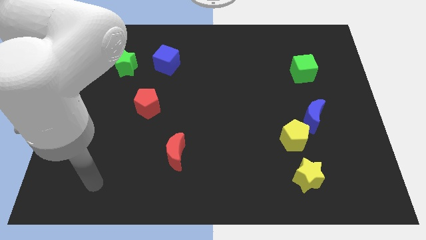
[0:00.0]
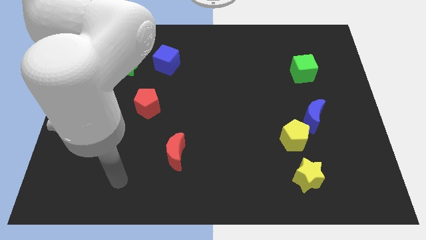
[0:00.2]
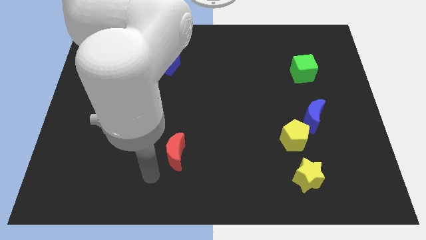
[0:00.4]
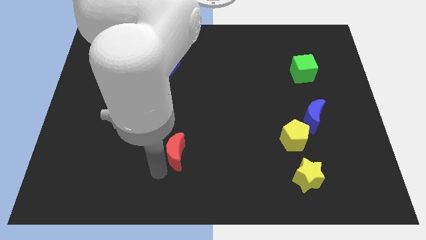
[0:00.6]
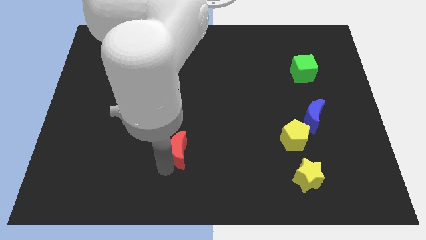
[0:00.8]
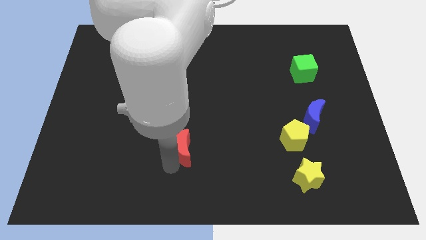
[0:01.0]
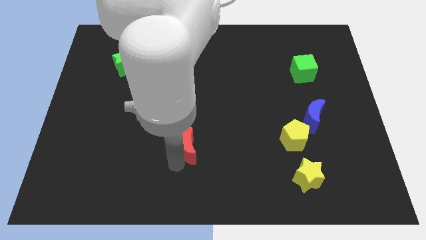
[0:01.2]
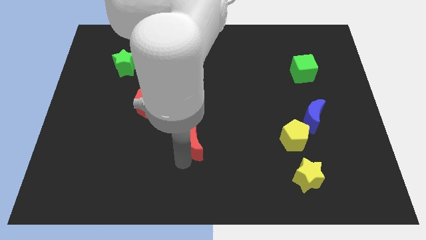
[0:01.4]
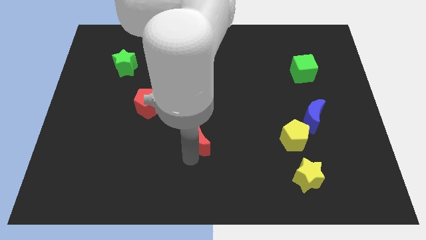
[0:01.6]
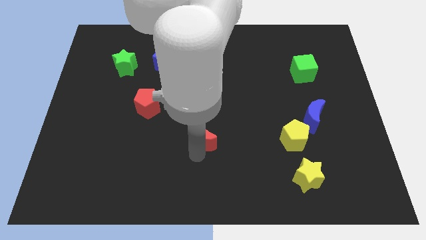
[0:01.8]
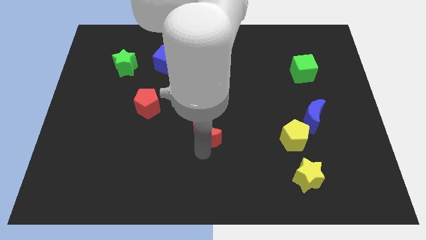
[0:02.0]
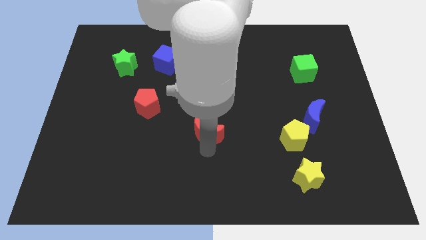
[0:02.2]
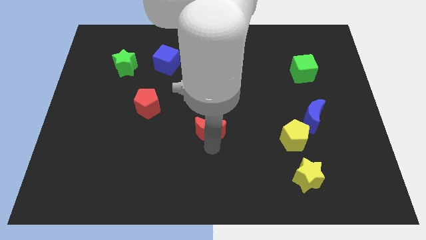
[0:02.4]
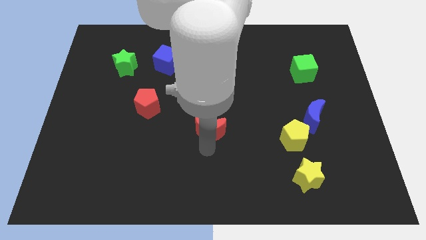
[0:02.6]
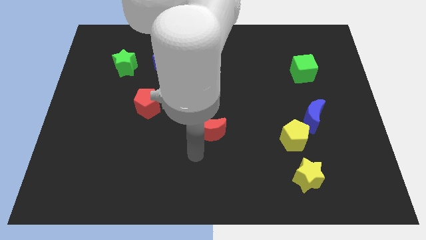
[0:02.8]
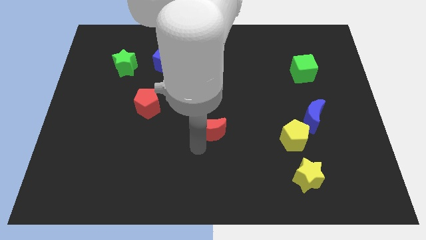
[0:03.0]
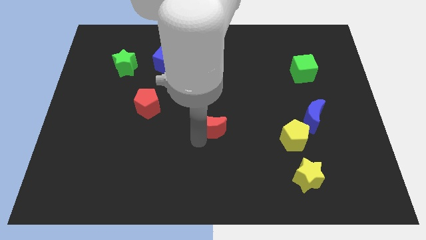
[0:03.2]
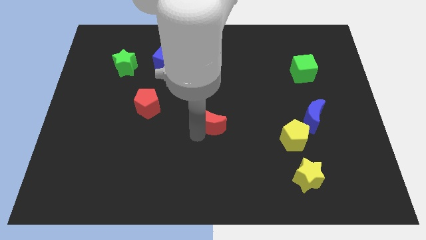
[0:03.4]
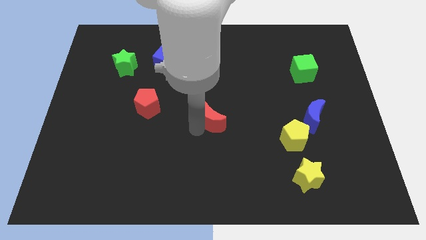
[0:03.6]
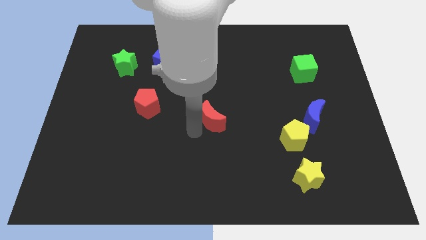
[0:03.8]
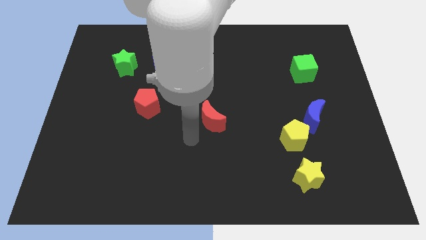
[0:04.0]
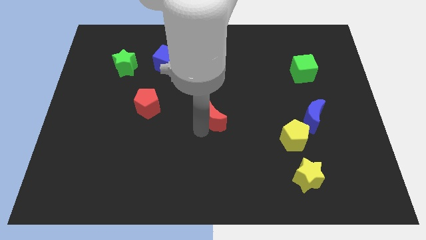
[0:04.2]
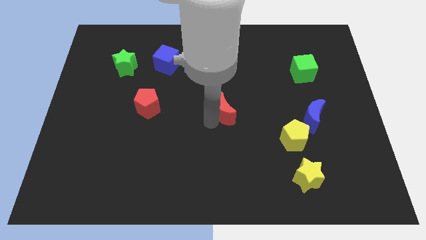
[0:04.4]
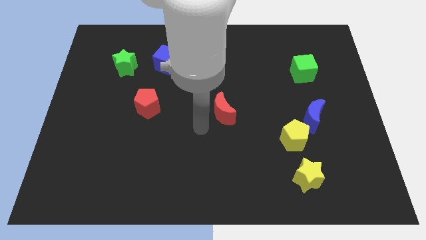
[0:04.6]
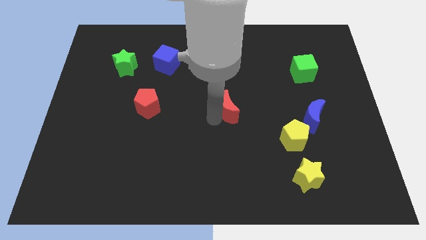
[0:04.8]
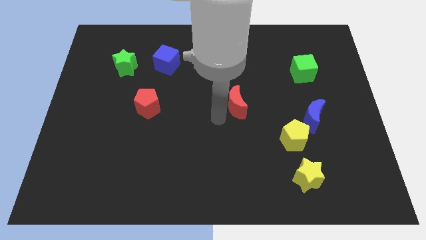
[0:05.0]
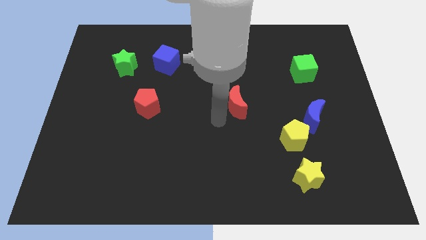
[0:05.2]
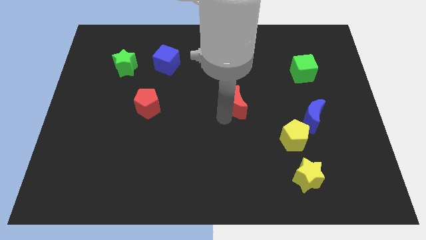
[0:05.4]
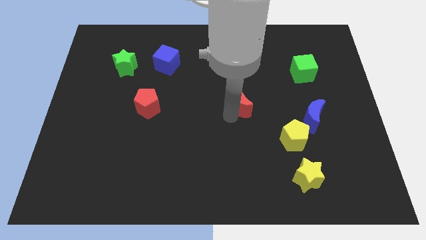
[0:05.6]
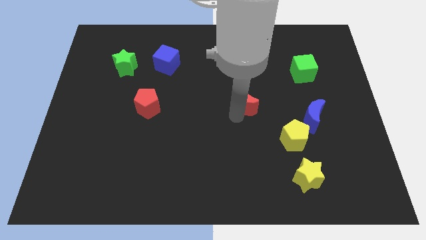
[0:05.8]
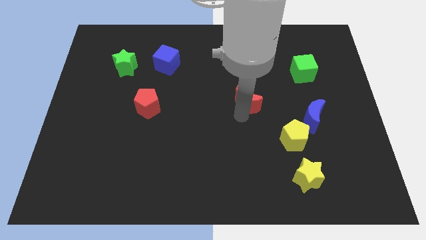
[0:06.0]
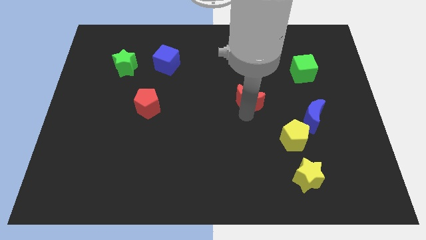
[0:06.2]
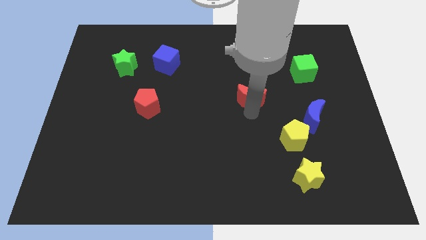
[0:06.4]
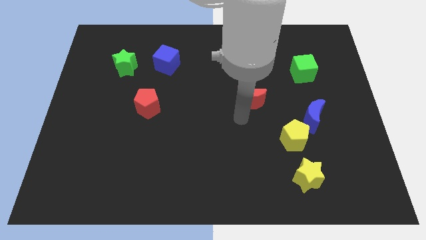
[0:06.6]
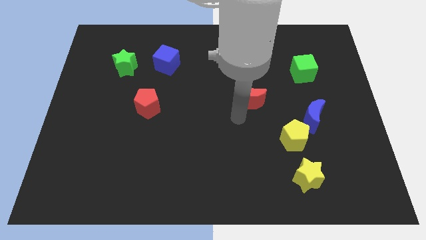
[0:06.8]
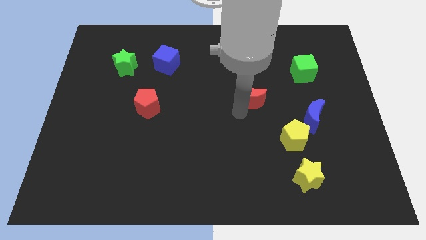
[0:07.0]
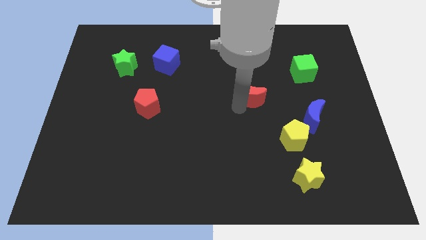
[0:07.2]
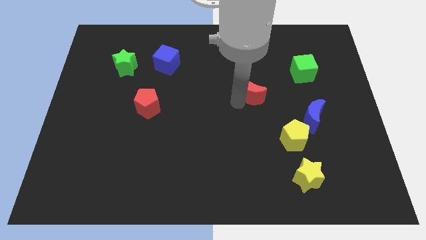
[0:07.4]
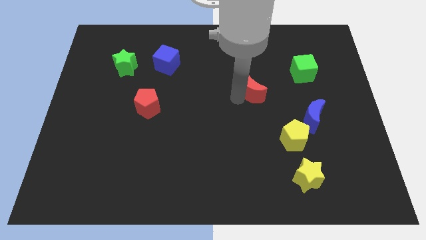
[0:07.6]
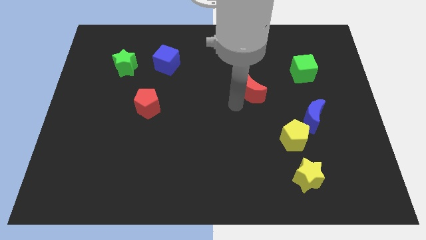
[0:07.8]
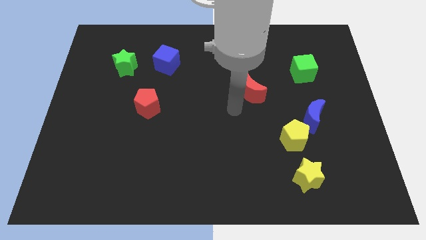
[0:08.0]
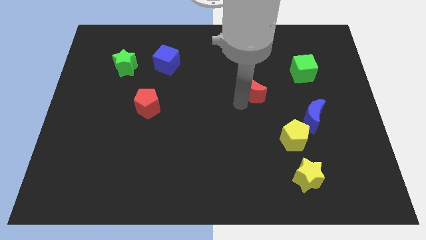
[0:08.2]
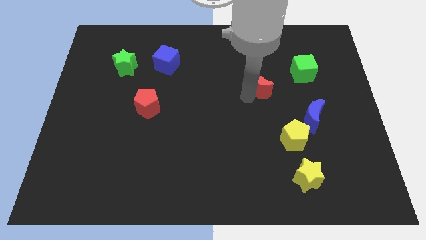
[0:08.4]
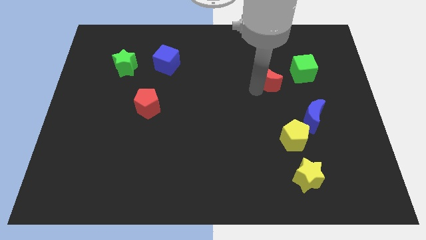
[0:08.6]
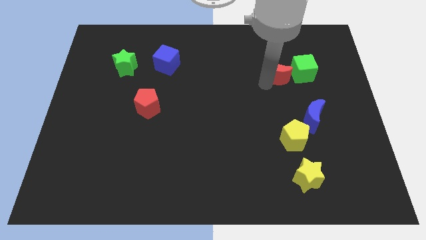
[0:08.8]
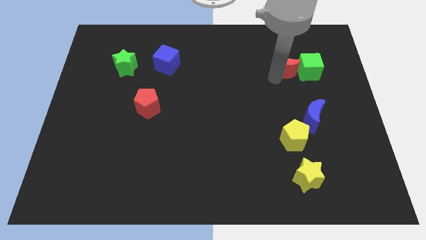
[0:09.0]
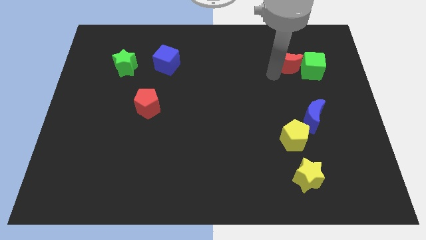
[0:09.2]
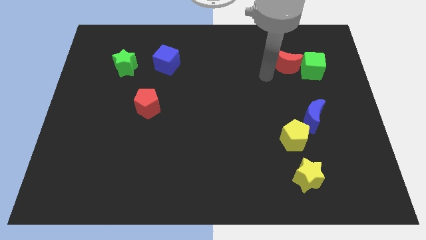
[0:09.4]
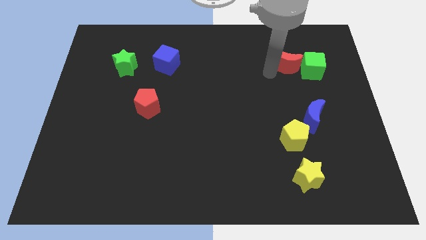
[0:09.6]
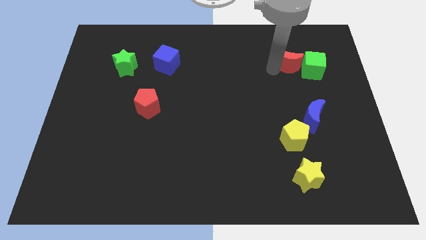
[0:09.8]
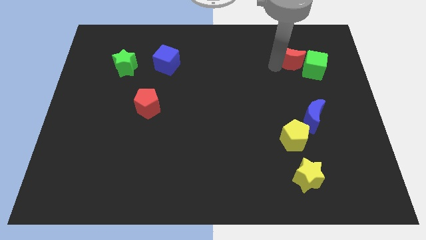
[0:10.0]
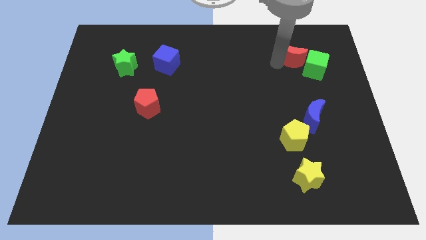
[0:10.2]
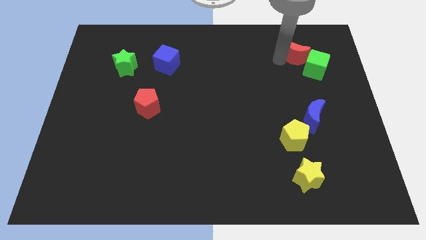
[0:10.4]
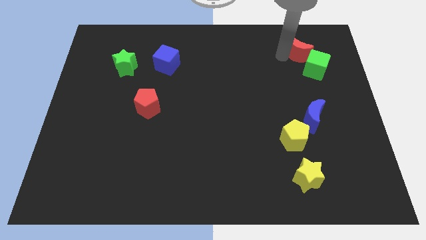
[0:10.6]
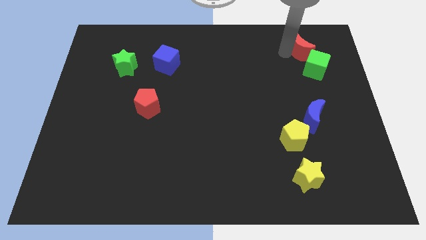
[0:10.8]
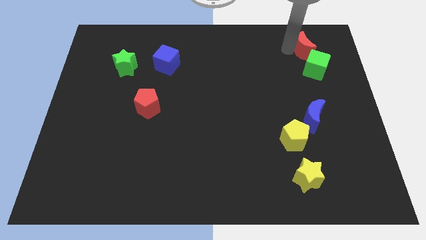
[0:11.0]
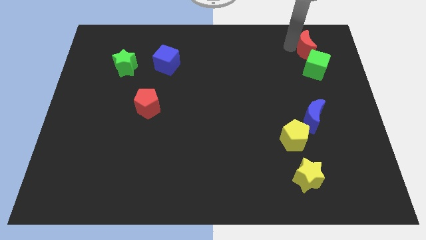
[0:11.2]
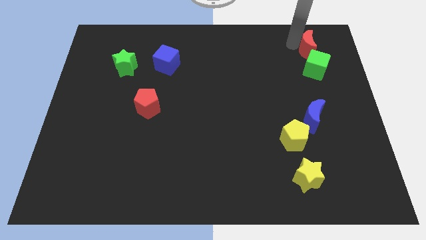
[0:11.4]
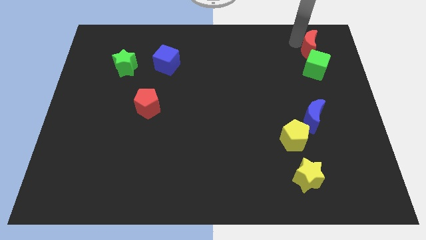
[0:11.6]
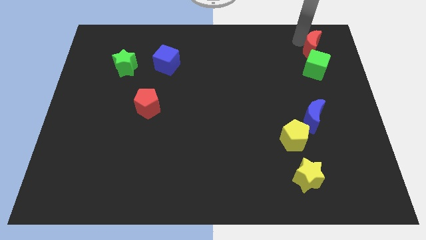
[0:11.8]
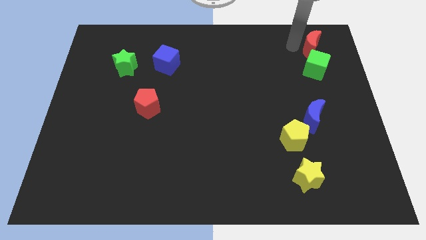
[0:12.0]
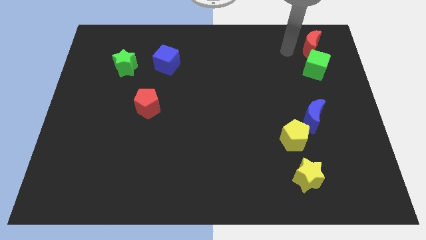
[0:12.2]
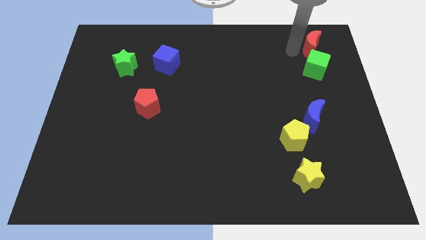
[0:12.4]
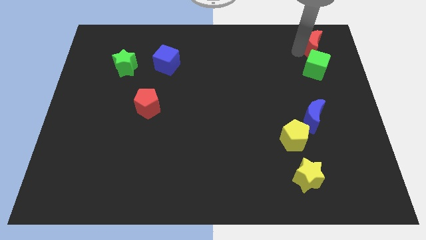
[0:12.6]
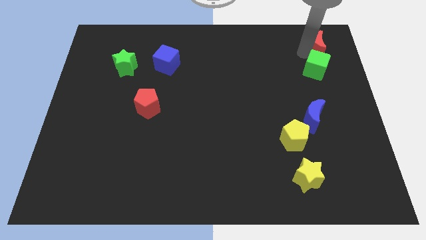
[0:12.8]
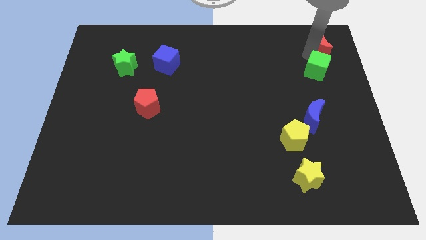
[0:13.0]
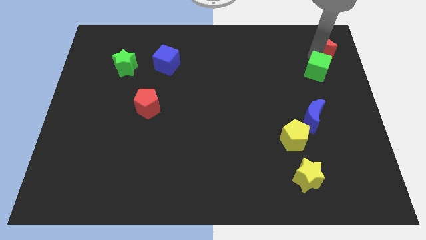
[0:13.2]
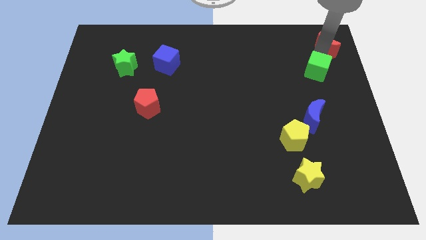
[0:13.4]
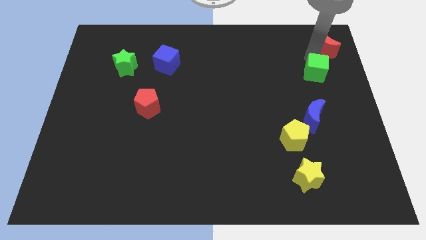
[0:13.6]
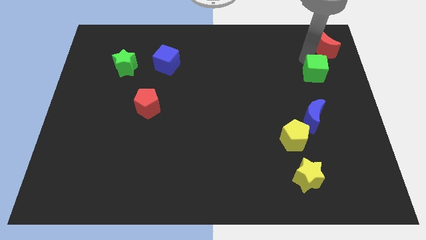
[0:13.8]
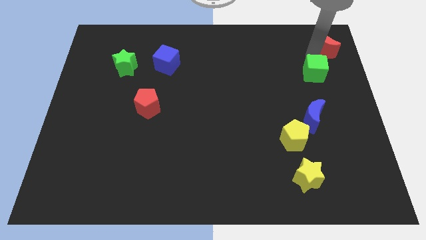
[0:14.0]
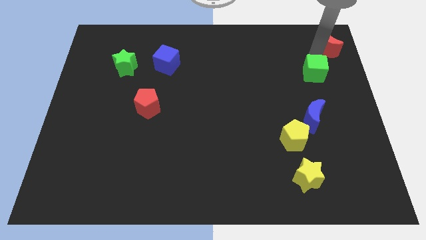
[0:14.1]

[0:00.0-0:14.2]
push the red moon to the upper right corner
